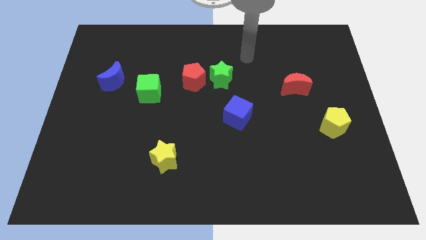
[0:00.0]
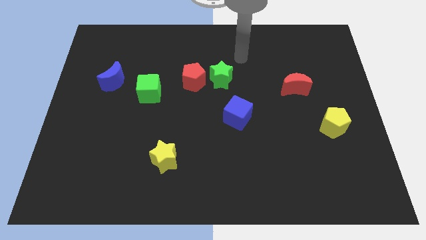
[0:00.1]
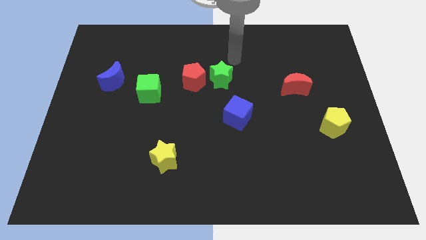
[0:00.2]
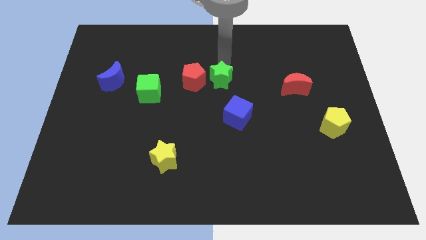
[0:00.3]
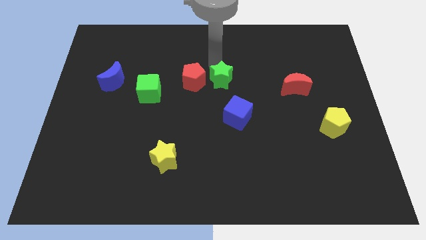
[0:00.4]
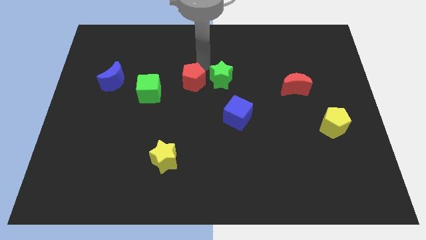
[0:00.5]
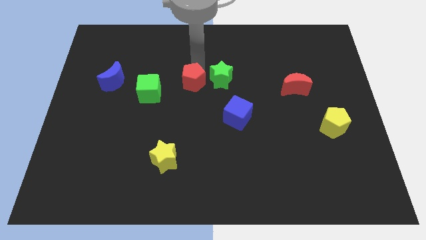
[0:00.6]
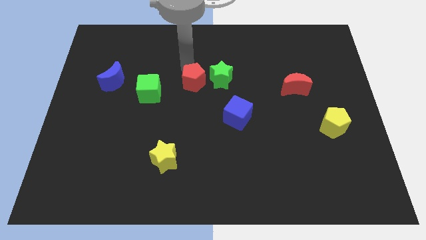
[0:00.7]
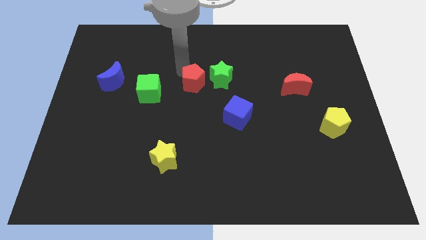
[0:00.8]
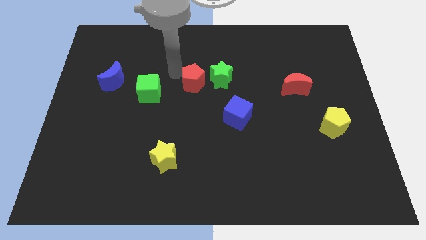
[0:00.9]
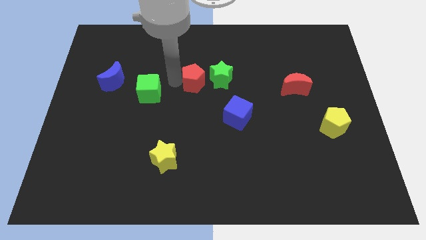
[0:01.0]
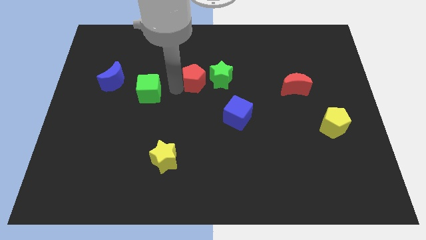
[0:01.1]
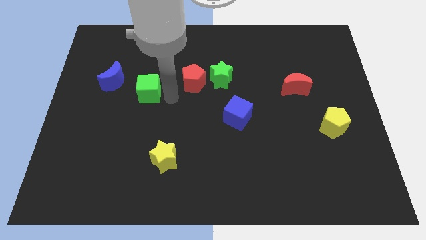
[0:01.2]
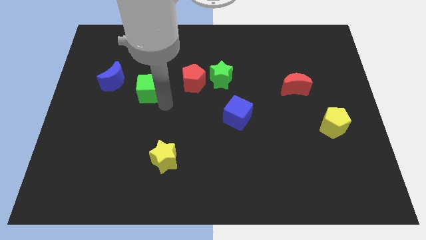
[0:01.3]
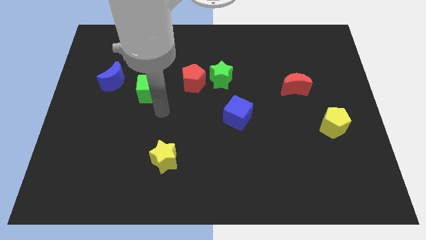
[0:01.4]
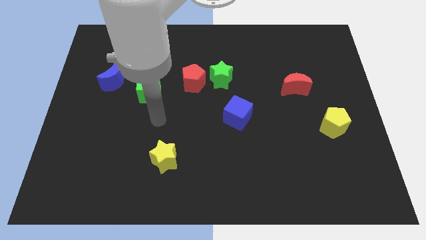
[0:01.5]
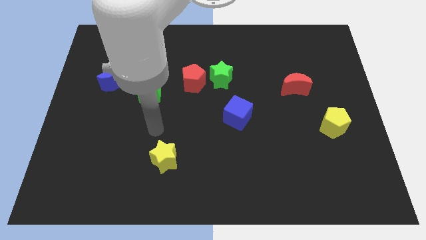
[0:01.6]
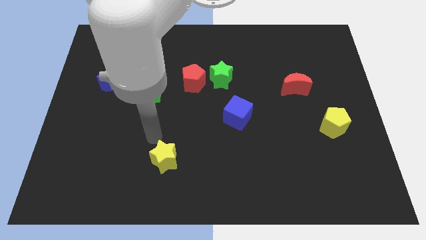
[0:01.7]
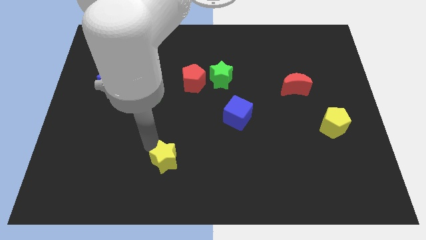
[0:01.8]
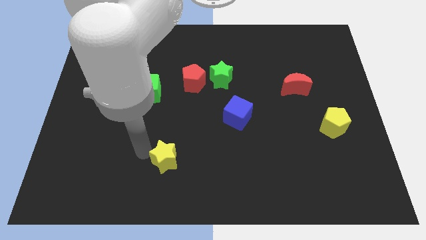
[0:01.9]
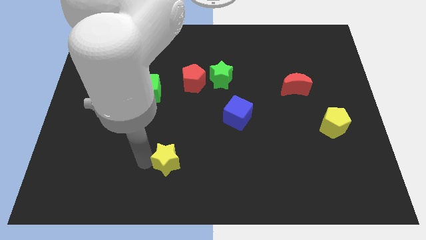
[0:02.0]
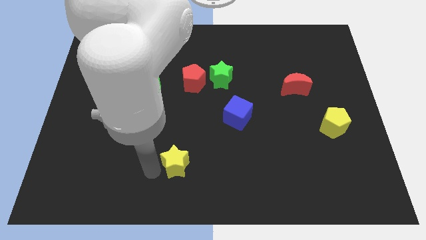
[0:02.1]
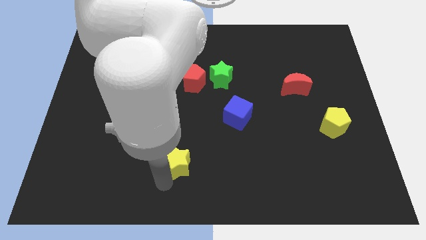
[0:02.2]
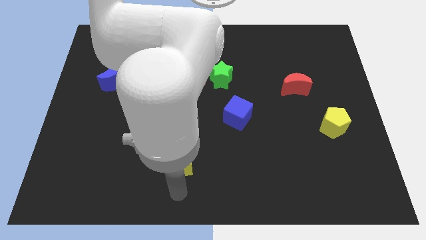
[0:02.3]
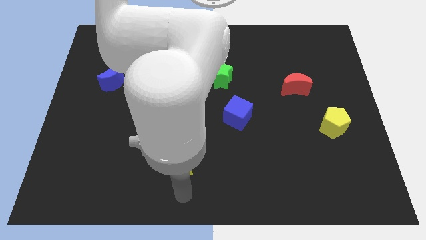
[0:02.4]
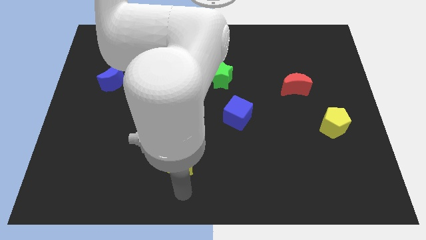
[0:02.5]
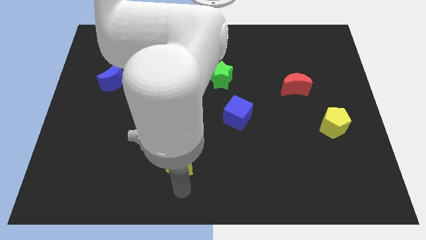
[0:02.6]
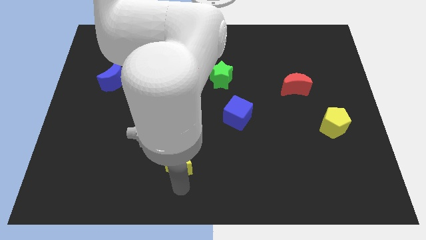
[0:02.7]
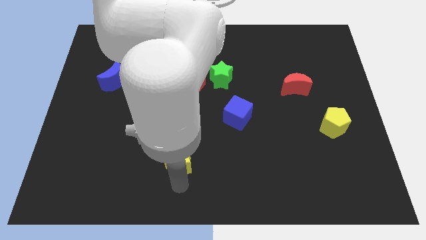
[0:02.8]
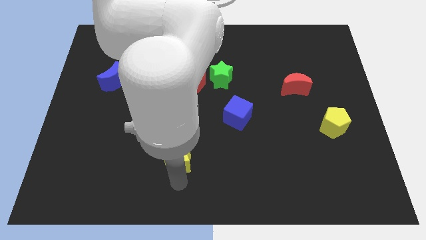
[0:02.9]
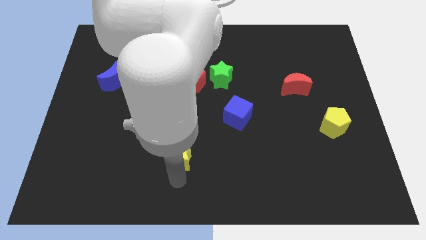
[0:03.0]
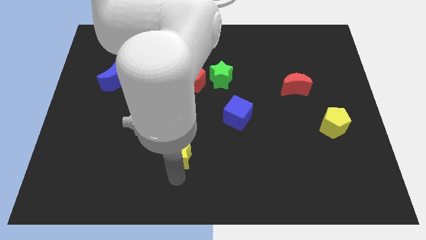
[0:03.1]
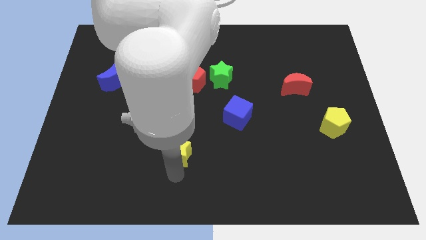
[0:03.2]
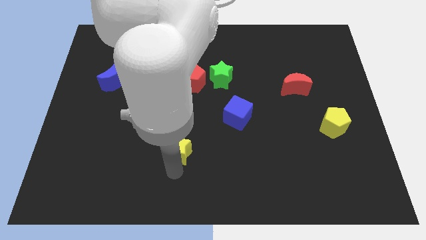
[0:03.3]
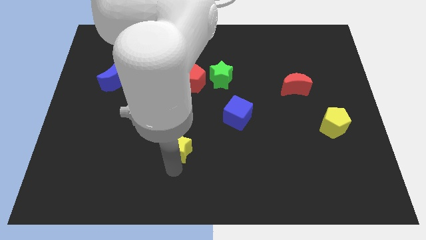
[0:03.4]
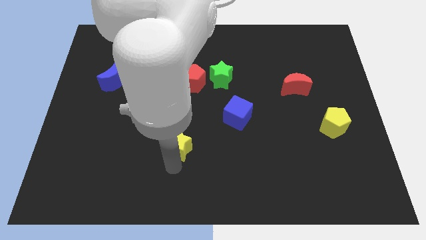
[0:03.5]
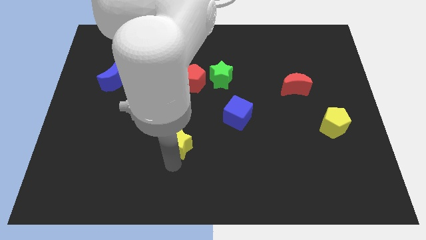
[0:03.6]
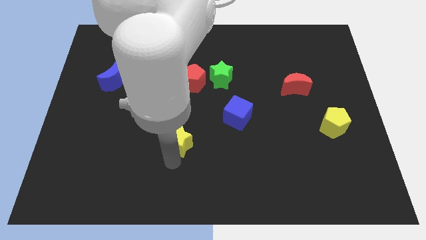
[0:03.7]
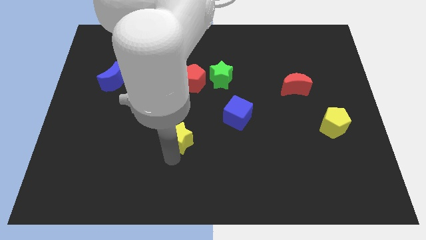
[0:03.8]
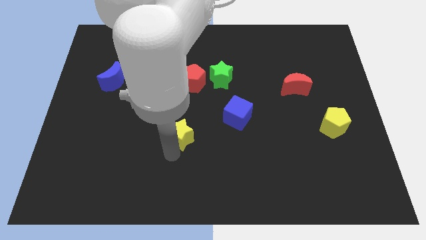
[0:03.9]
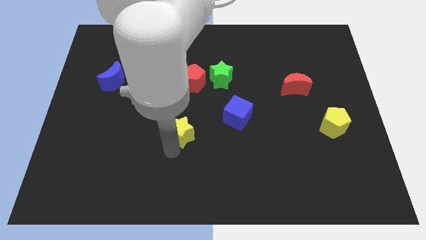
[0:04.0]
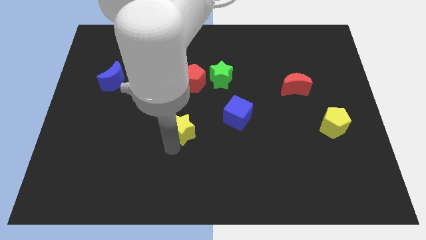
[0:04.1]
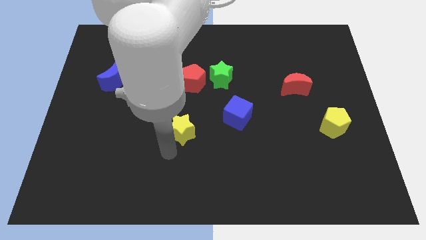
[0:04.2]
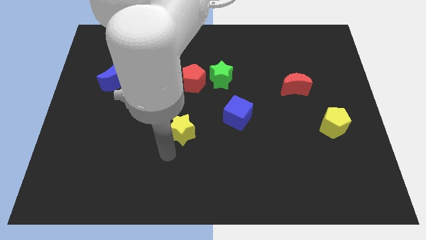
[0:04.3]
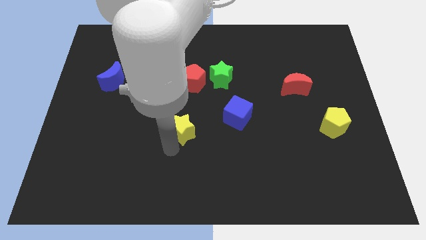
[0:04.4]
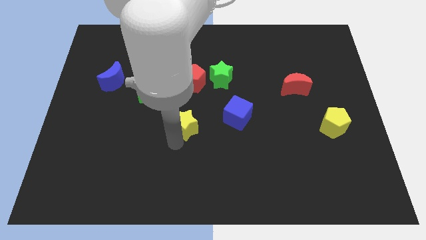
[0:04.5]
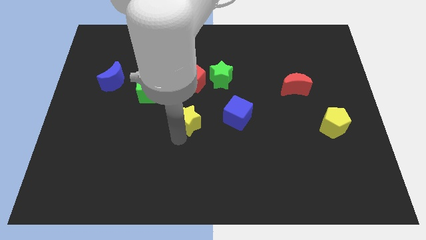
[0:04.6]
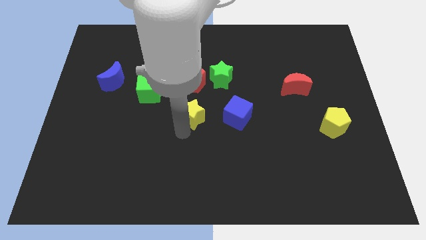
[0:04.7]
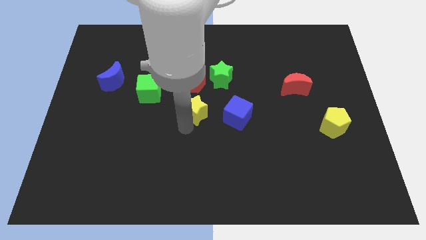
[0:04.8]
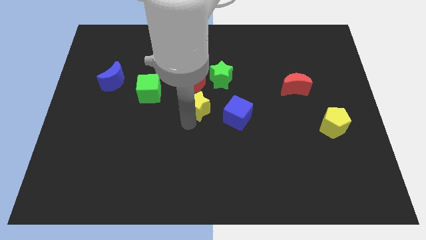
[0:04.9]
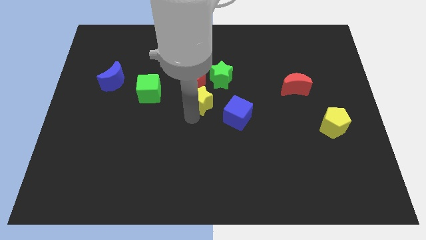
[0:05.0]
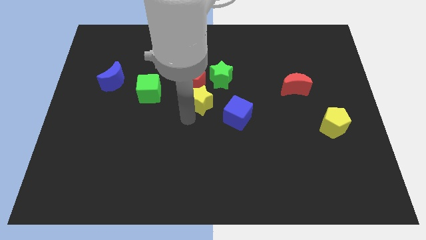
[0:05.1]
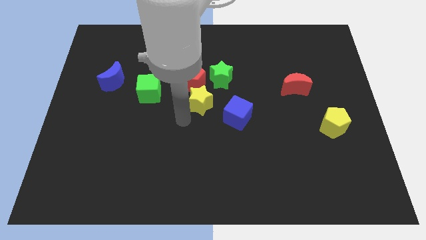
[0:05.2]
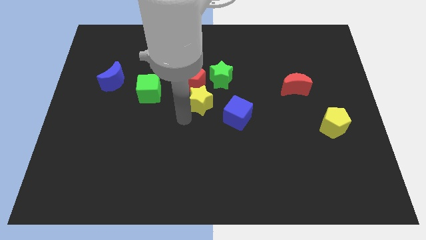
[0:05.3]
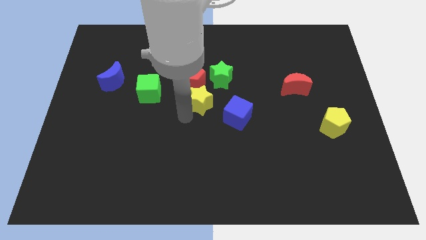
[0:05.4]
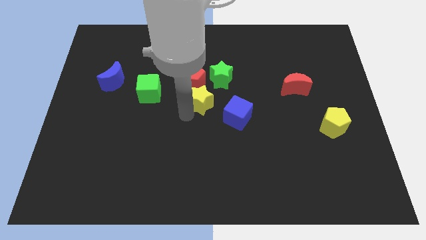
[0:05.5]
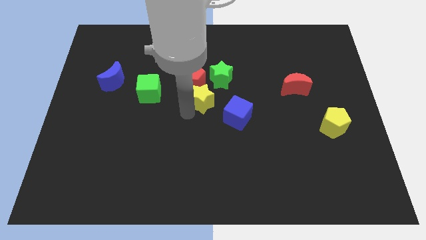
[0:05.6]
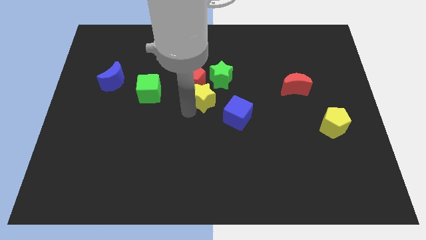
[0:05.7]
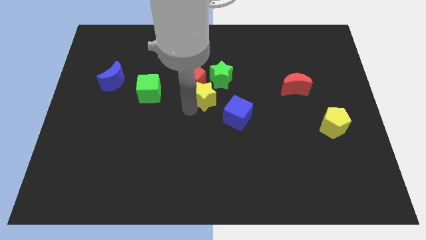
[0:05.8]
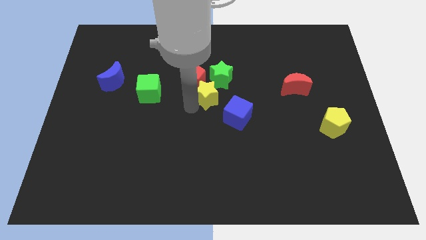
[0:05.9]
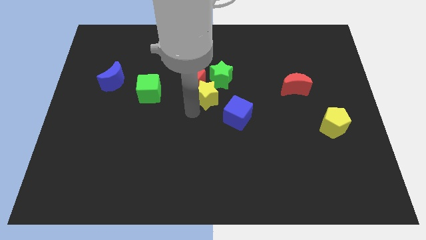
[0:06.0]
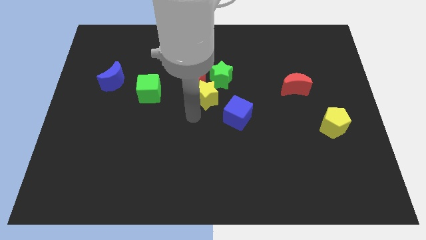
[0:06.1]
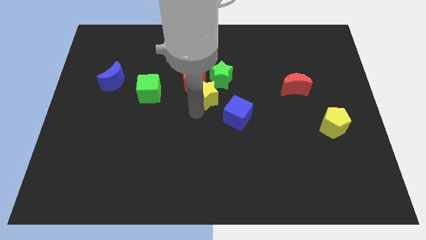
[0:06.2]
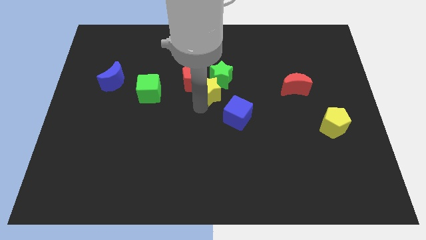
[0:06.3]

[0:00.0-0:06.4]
put the yellow star next to the green star

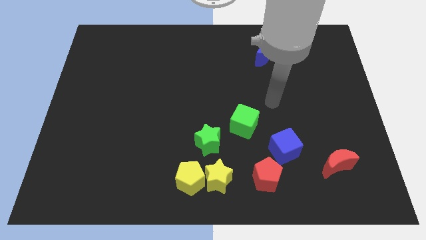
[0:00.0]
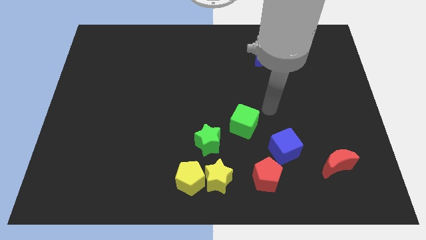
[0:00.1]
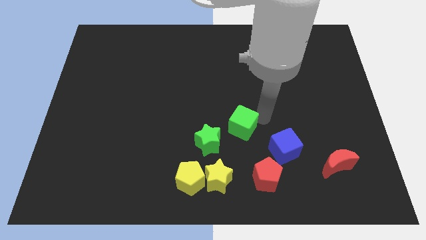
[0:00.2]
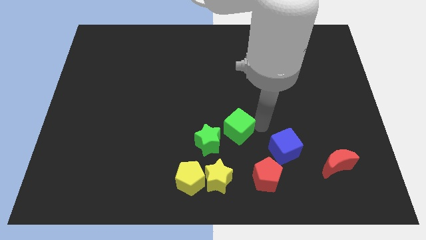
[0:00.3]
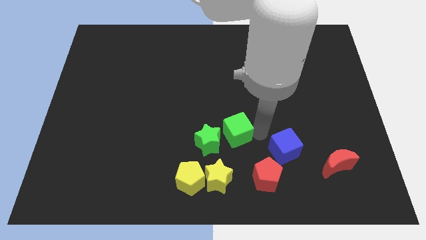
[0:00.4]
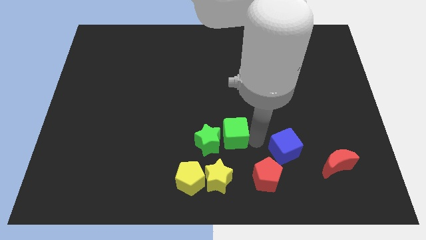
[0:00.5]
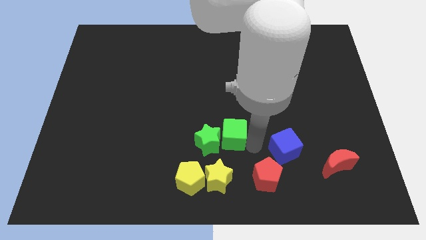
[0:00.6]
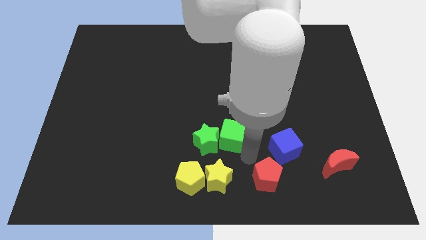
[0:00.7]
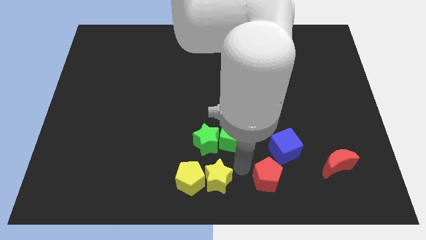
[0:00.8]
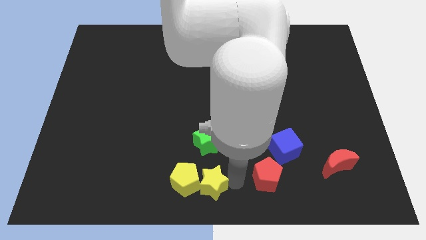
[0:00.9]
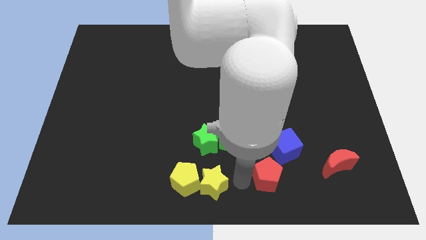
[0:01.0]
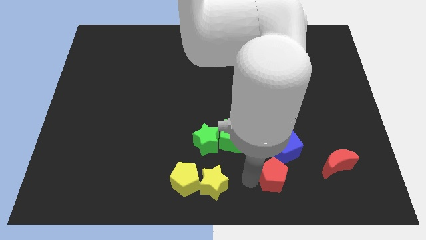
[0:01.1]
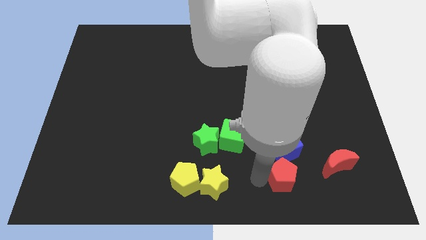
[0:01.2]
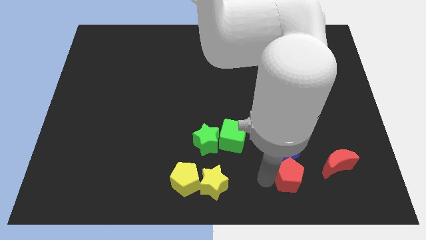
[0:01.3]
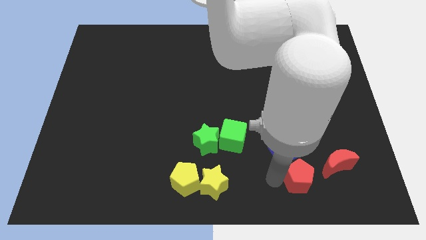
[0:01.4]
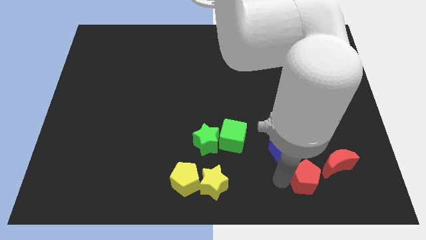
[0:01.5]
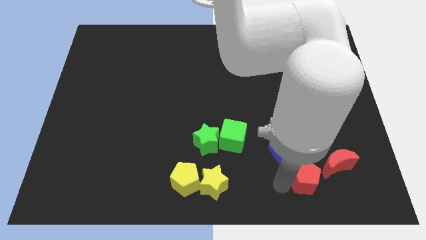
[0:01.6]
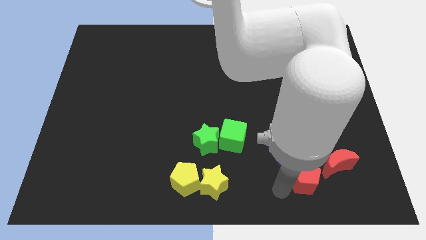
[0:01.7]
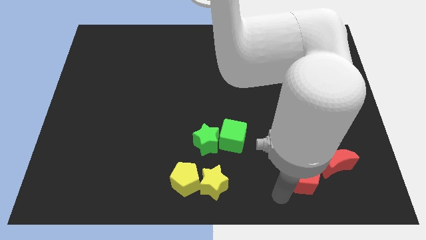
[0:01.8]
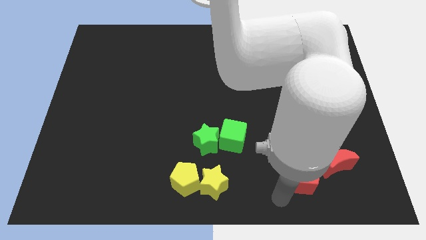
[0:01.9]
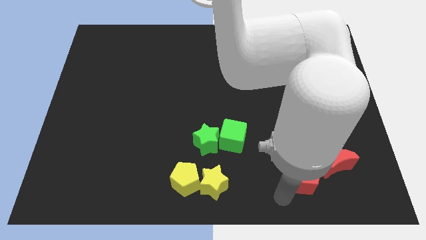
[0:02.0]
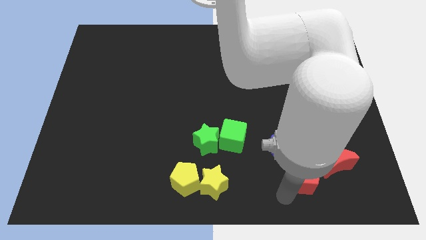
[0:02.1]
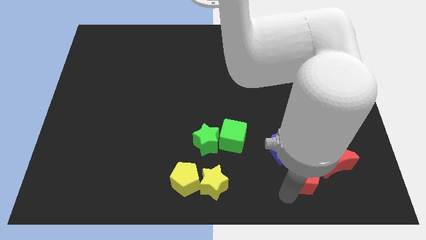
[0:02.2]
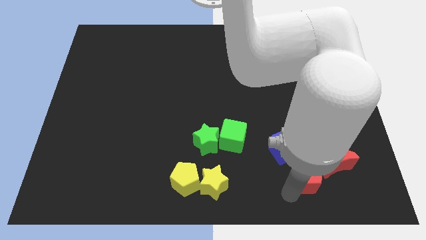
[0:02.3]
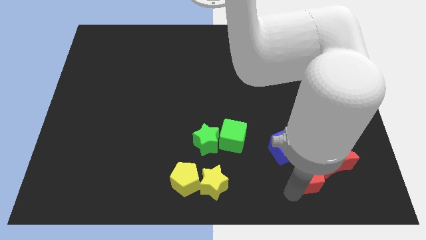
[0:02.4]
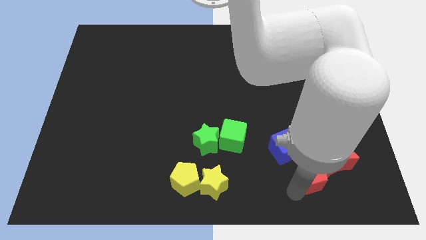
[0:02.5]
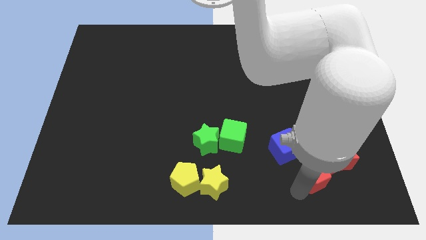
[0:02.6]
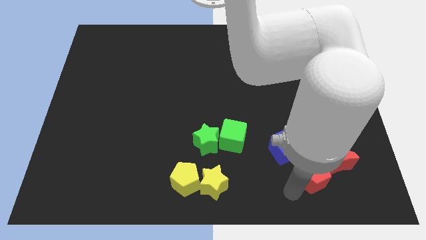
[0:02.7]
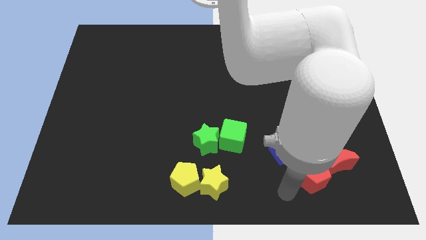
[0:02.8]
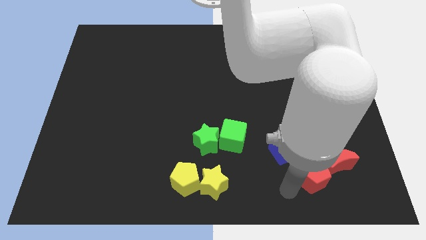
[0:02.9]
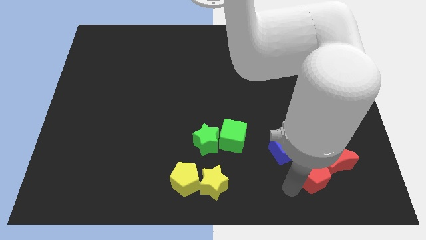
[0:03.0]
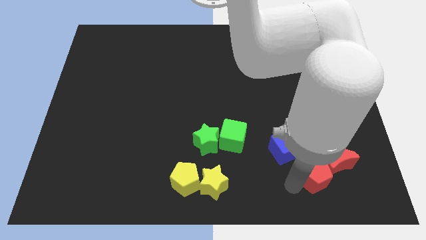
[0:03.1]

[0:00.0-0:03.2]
slide the red pentagon towards the red moon
